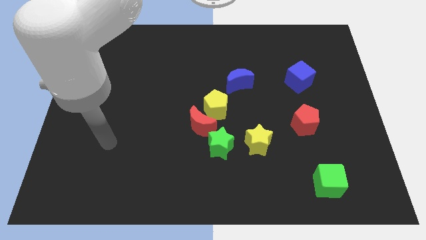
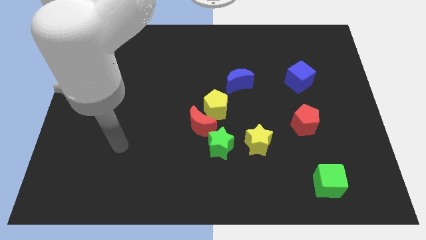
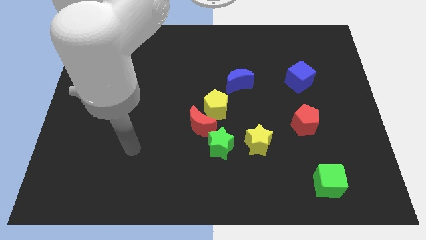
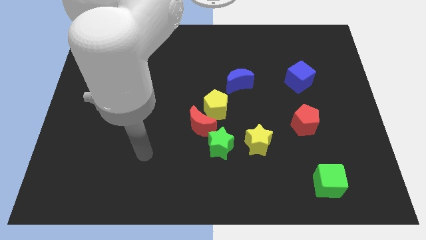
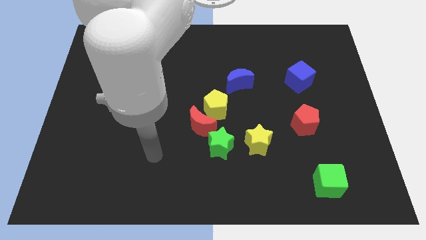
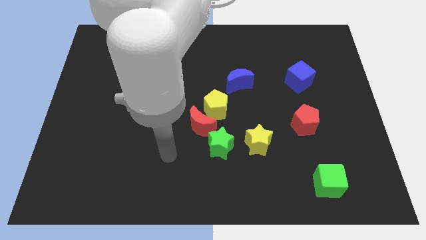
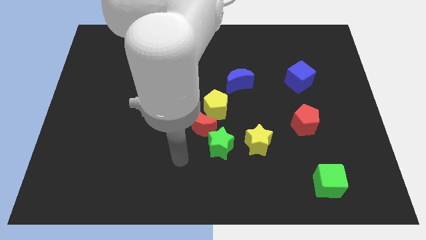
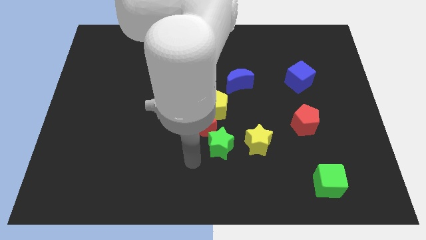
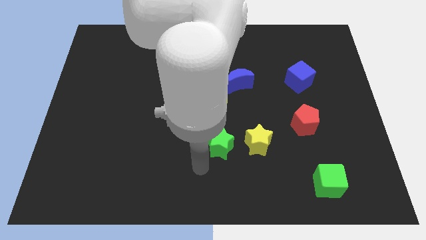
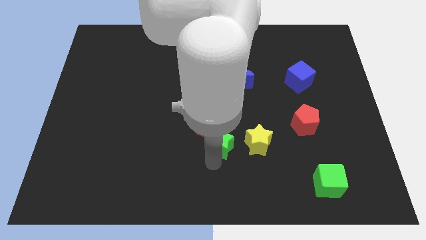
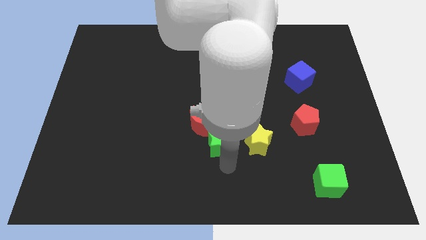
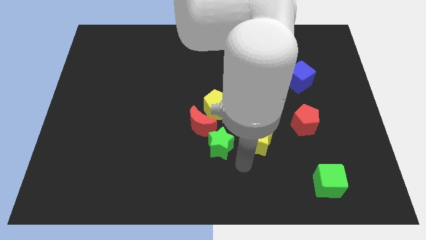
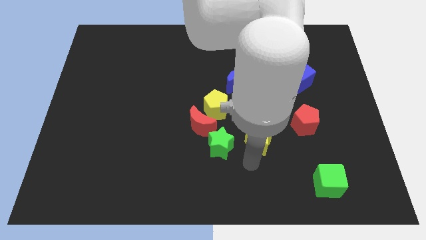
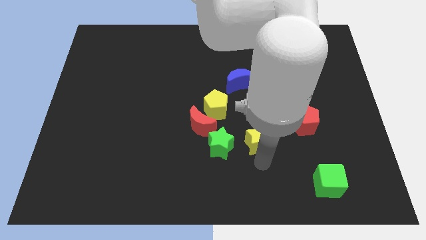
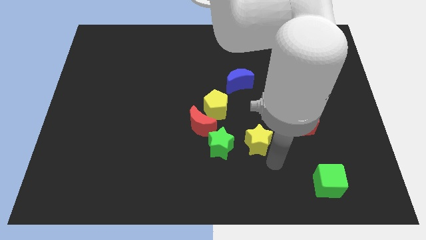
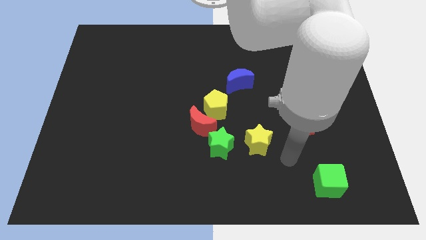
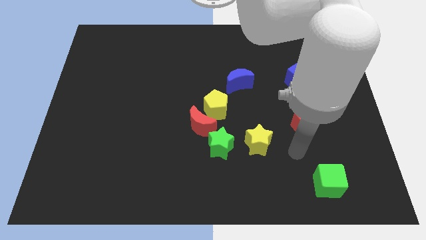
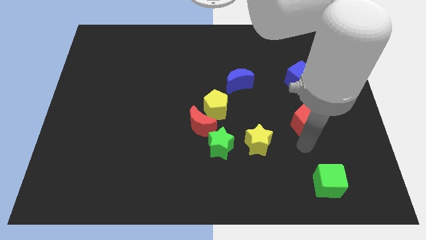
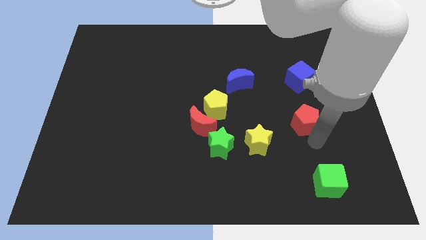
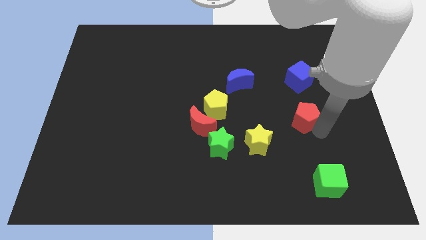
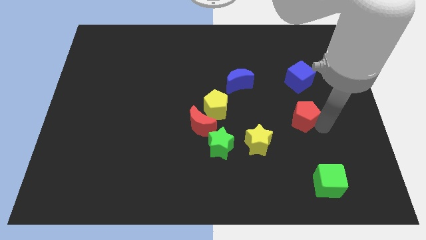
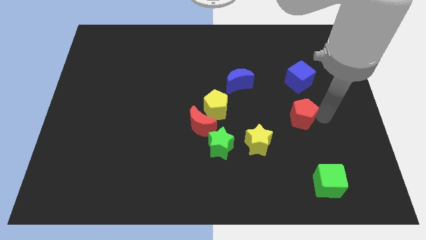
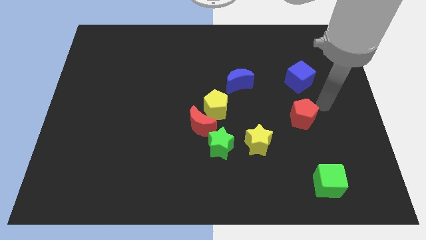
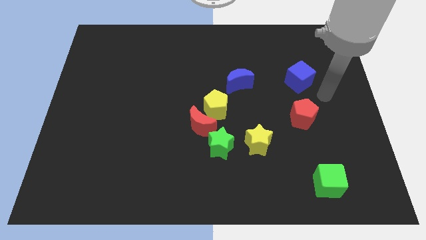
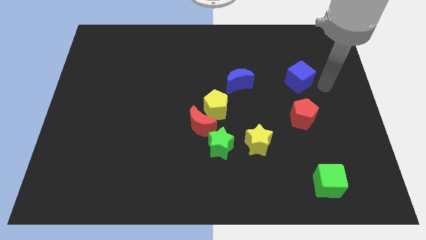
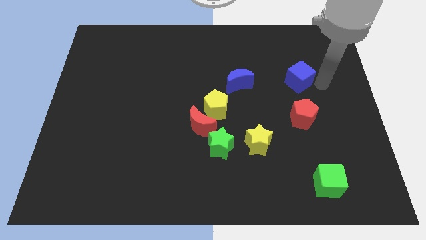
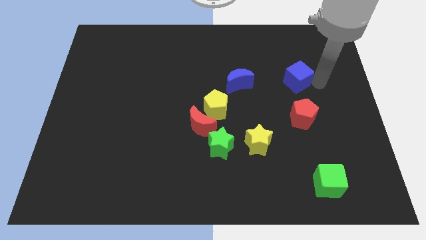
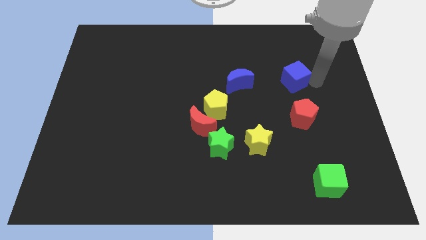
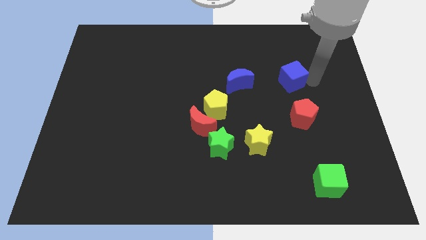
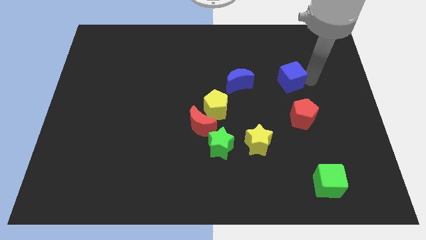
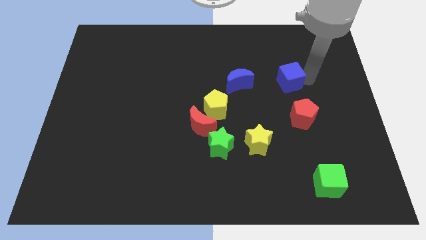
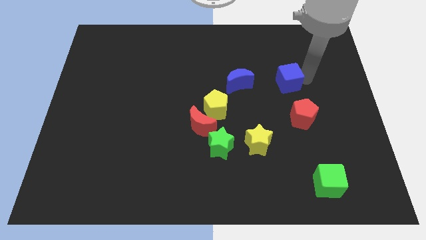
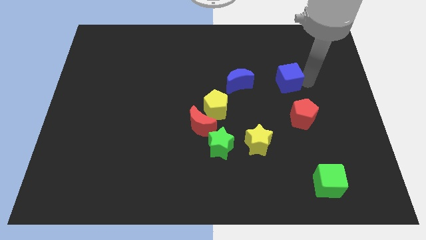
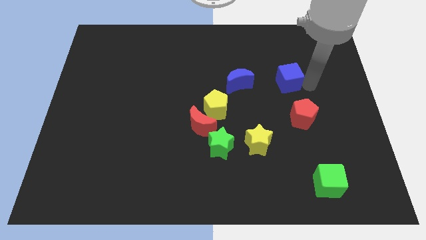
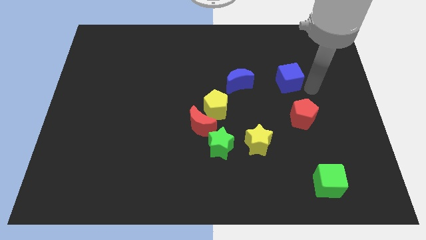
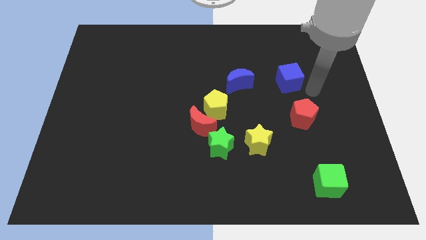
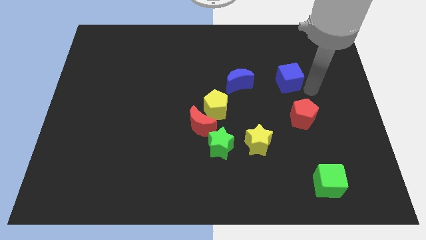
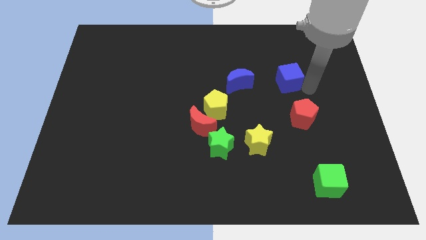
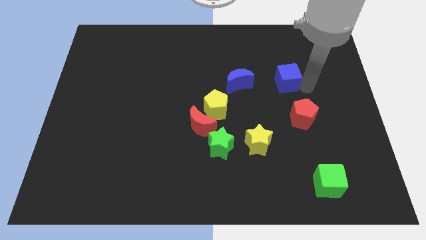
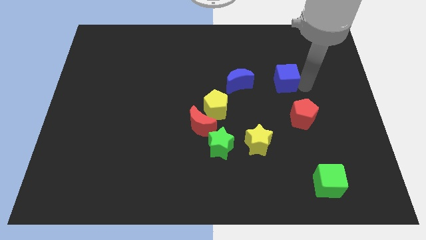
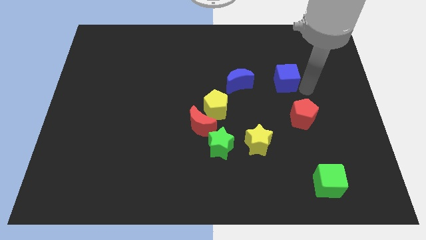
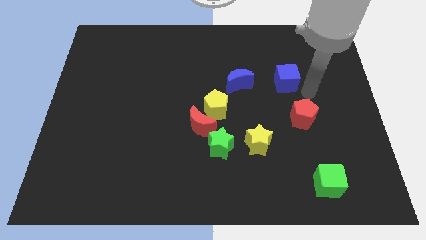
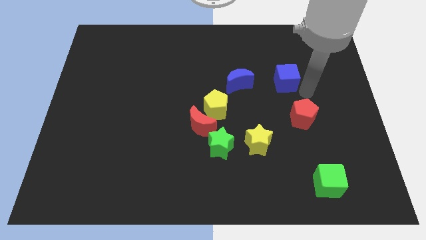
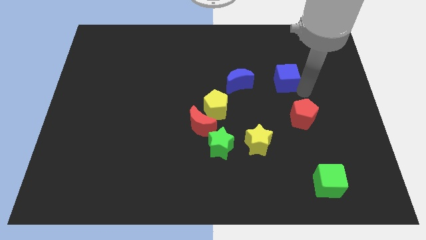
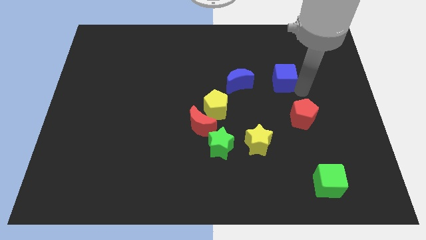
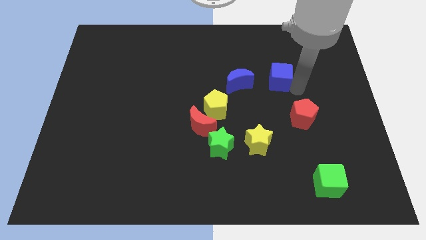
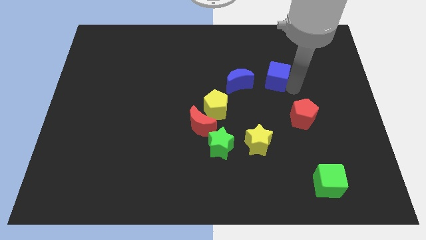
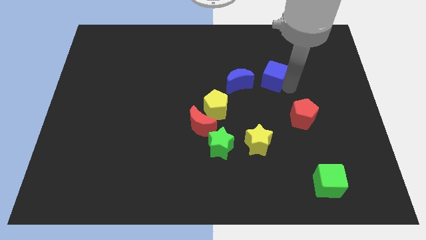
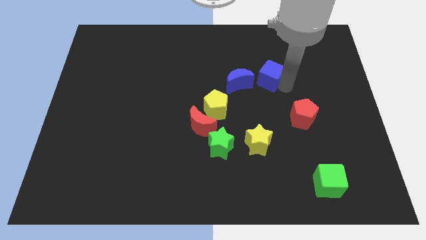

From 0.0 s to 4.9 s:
push the blue cube somewhat to the left

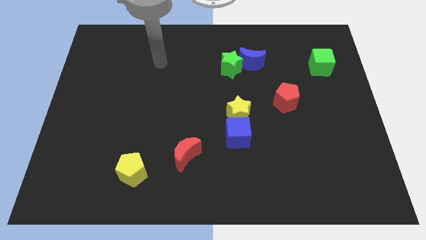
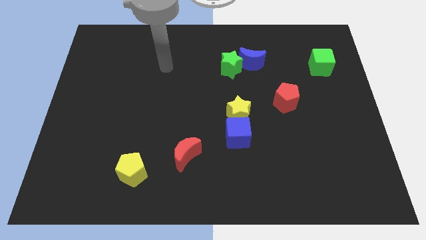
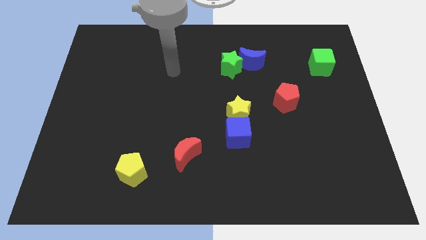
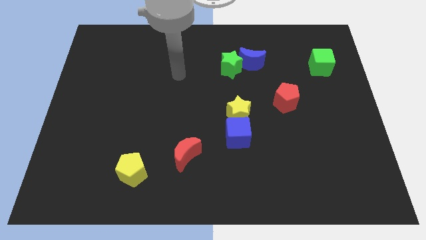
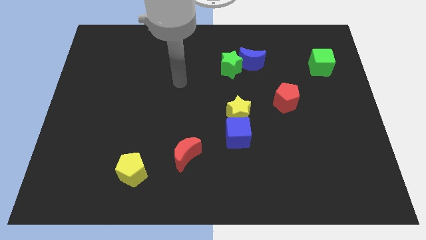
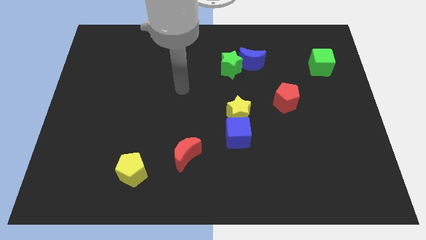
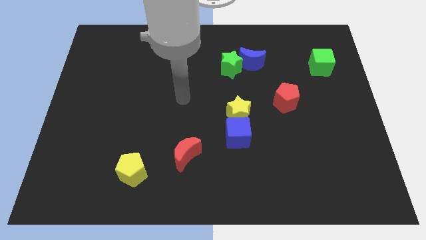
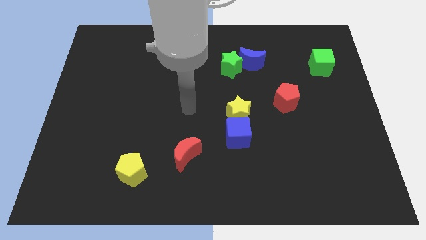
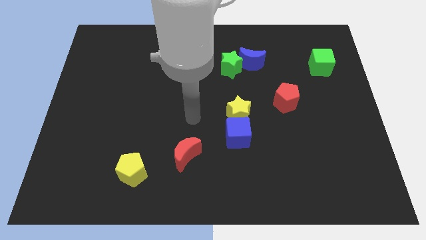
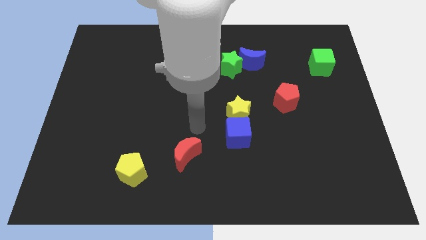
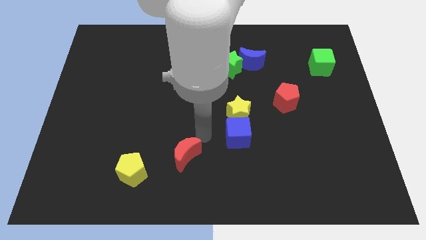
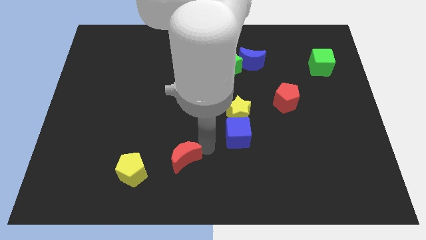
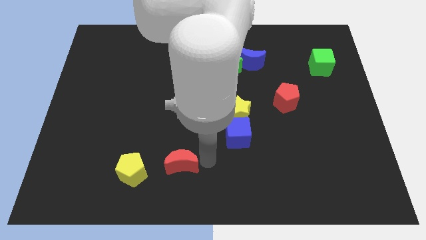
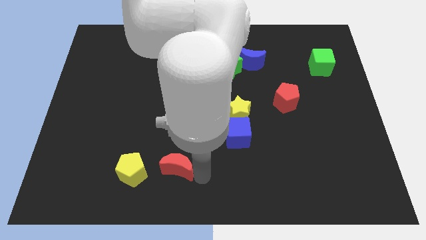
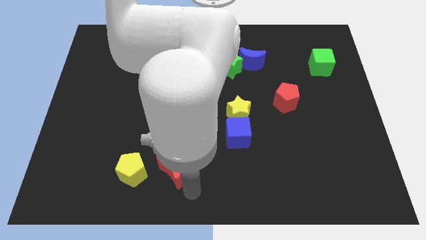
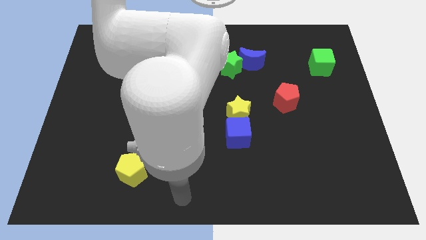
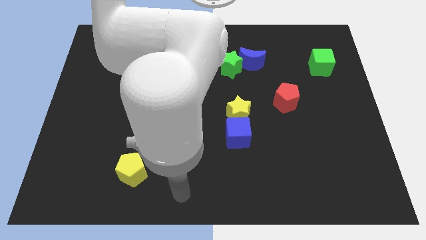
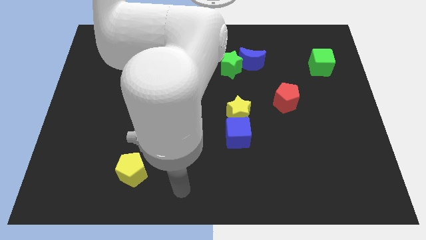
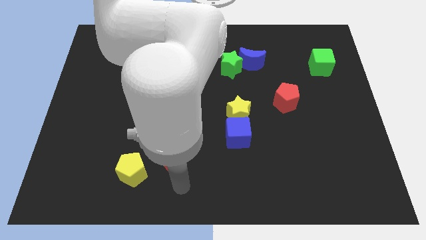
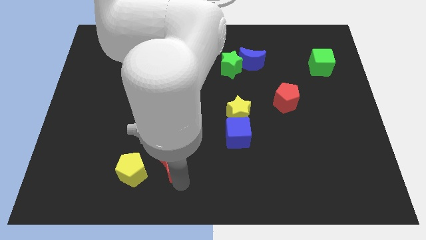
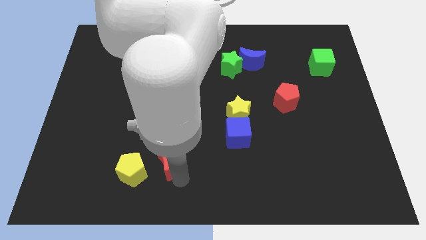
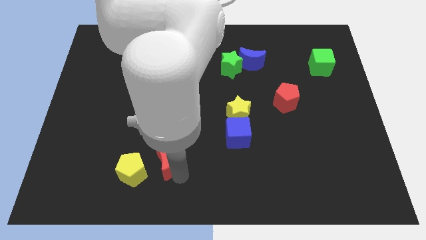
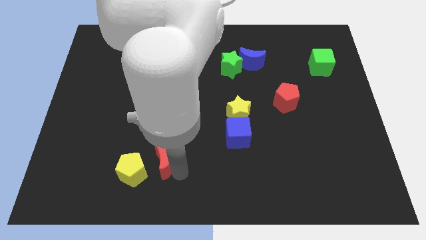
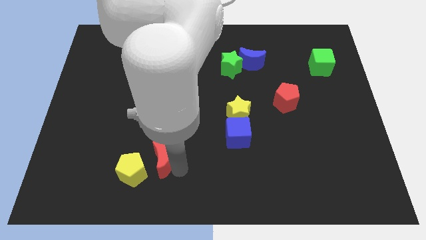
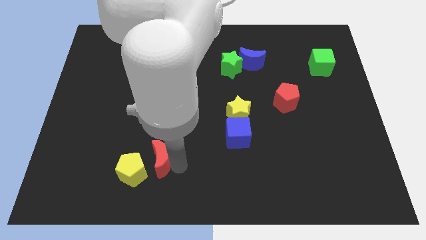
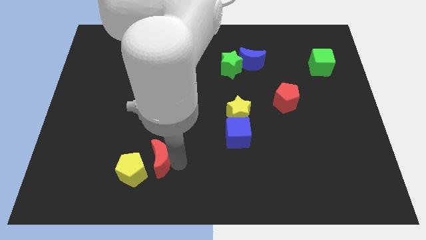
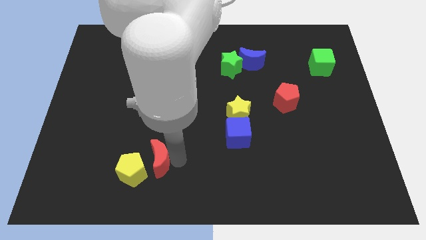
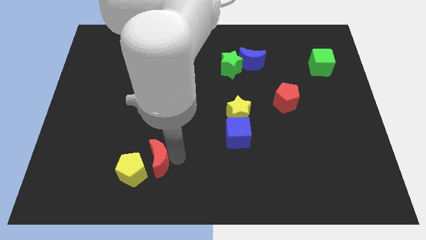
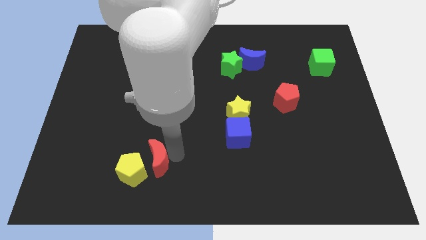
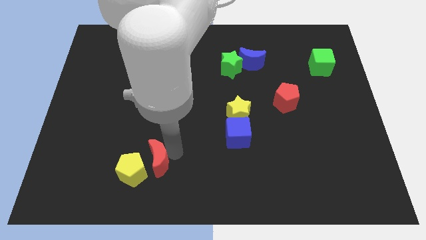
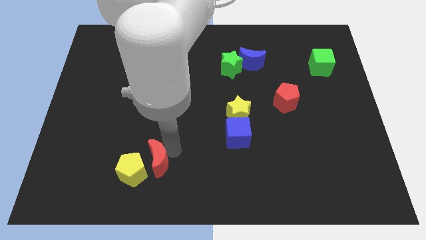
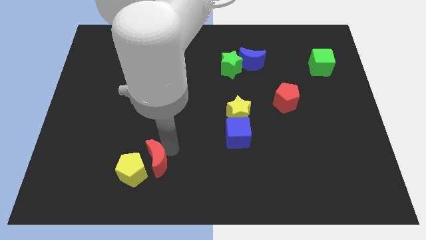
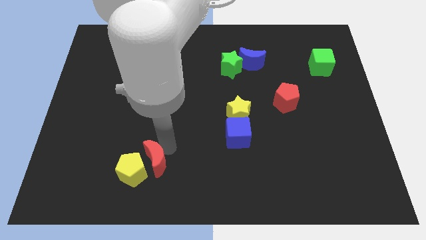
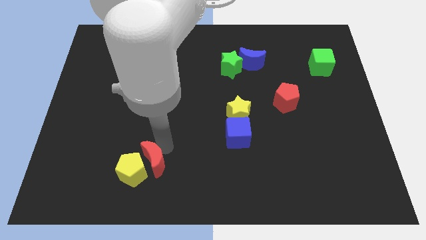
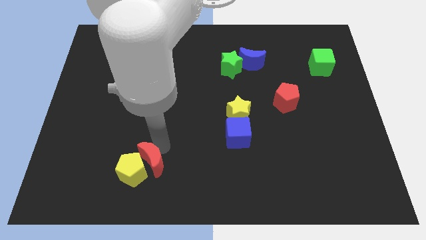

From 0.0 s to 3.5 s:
push the red moon a little left
